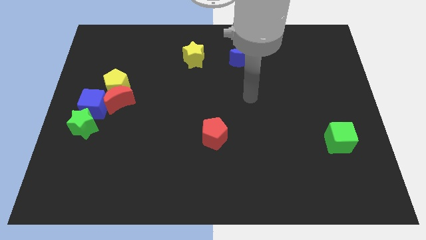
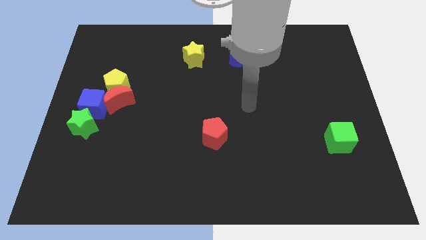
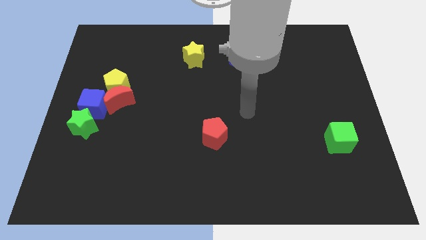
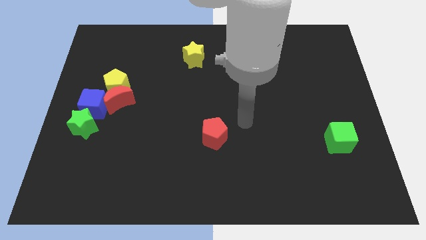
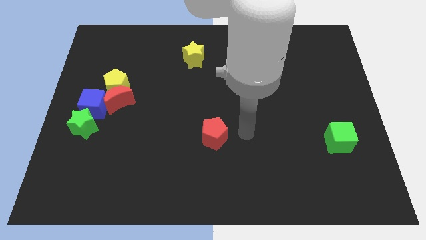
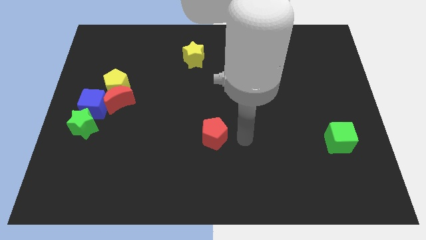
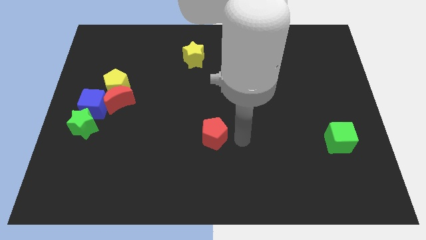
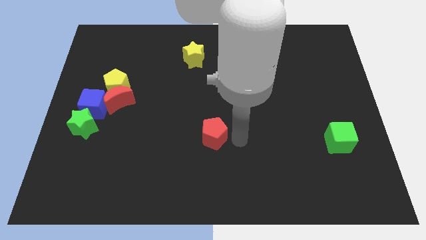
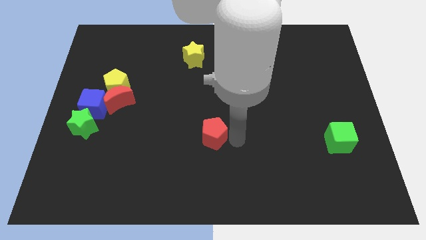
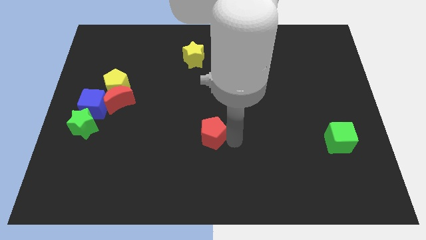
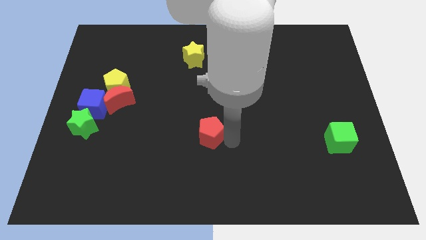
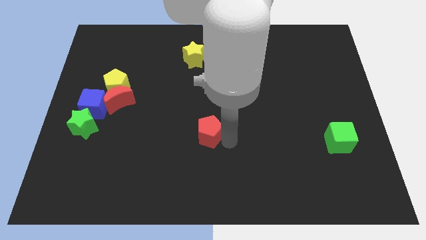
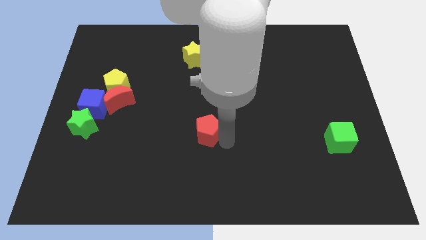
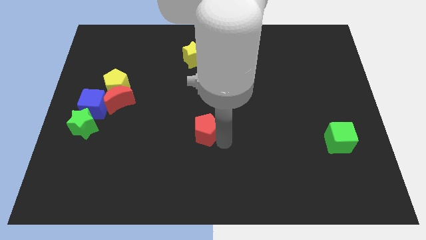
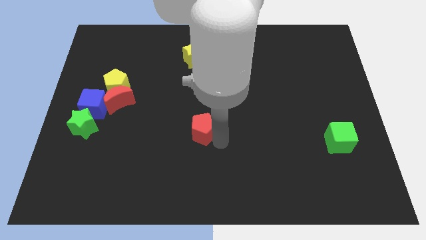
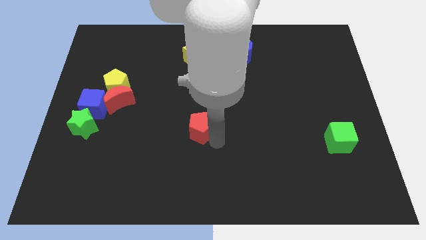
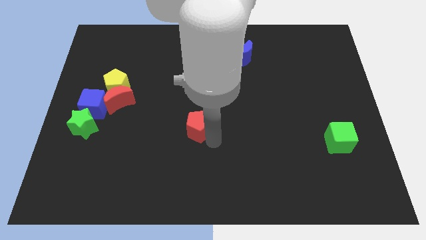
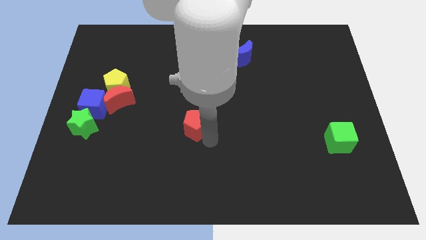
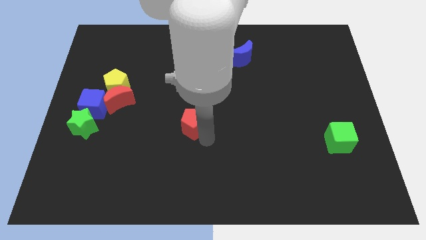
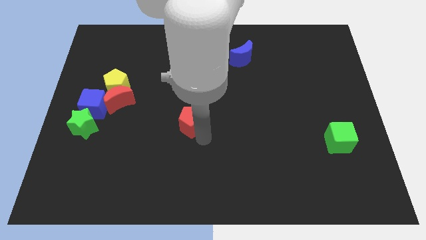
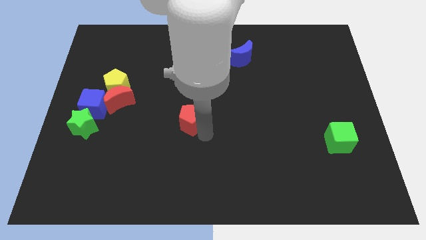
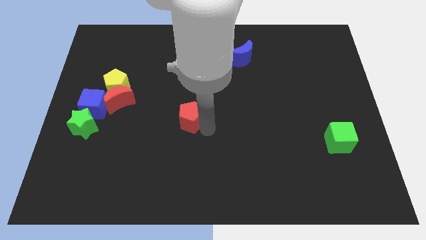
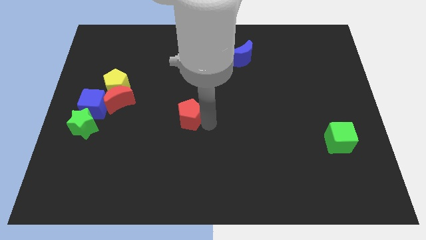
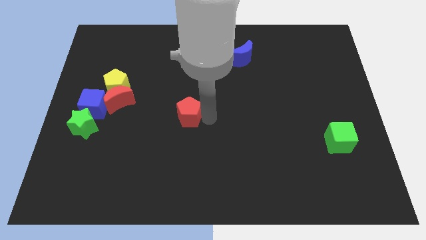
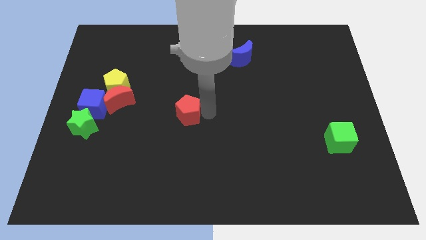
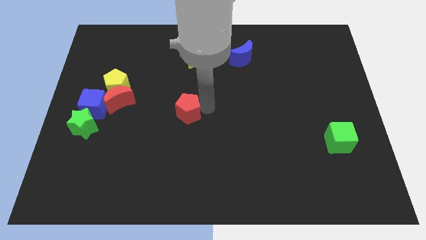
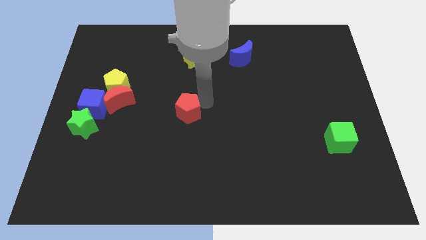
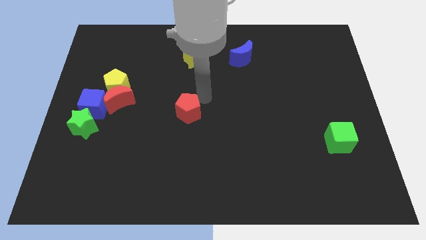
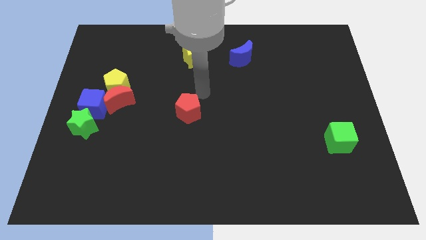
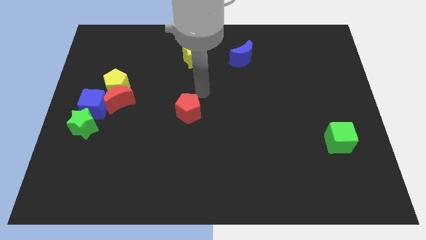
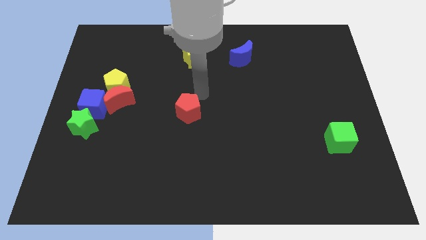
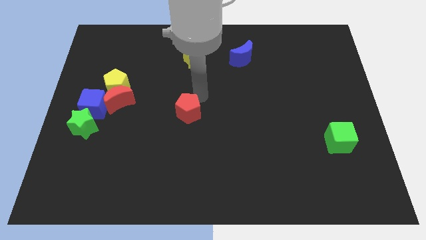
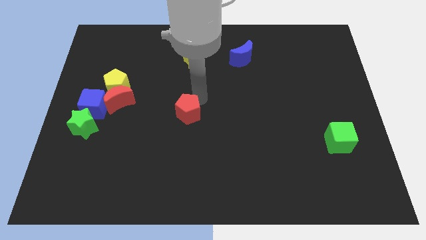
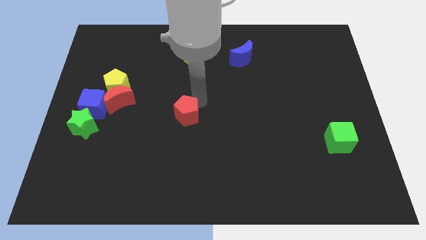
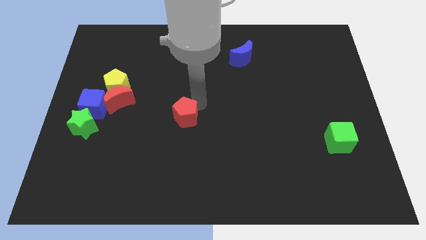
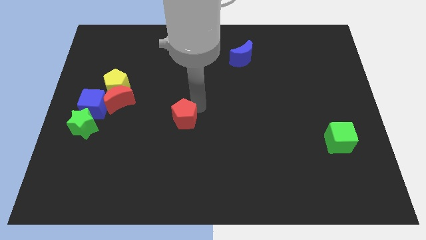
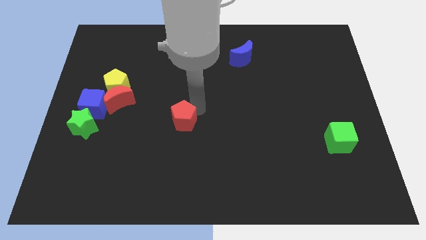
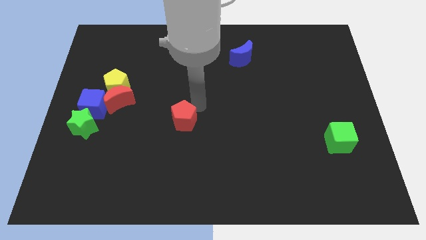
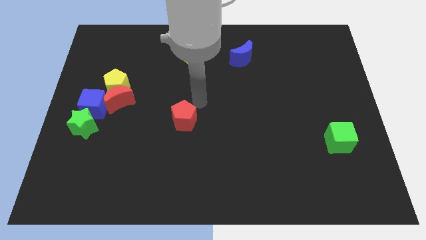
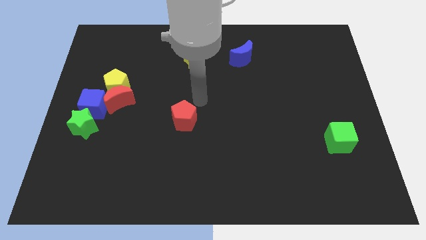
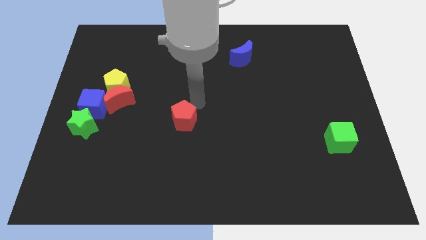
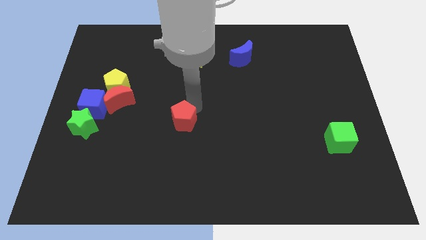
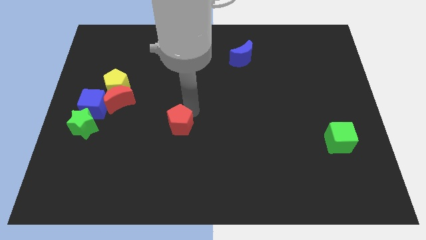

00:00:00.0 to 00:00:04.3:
push the red pentagon to the left a little bit

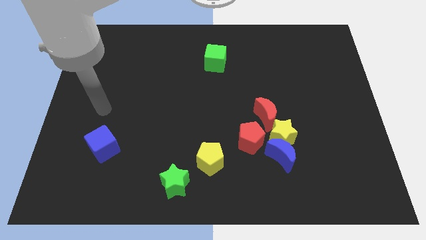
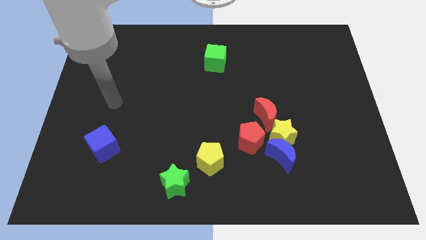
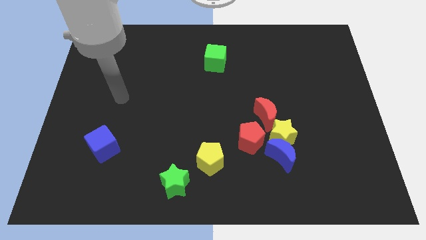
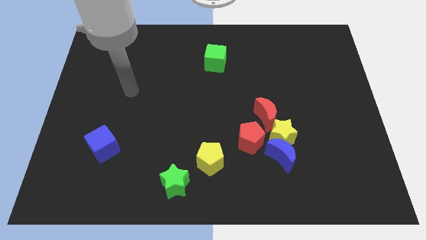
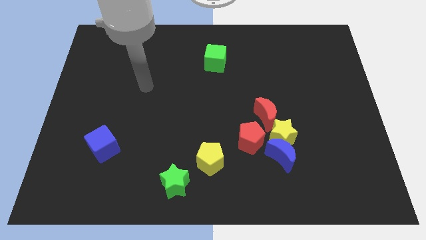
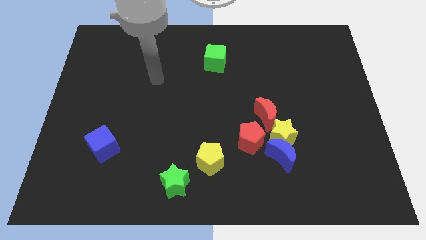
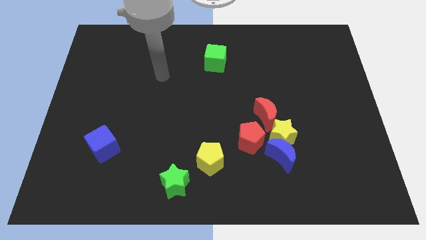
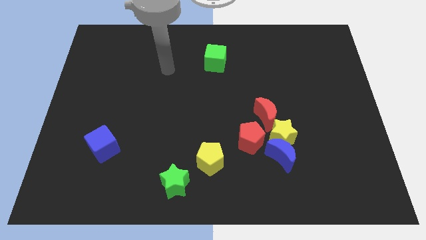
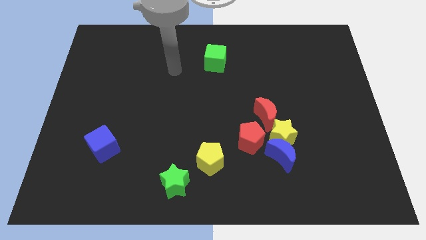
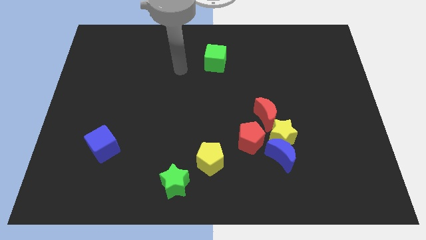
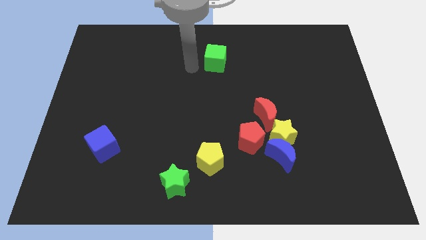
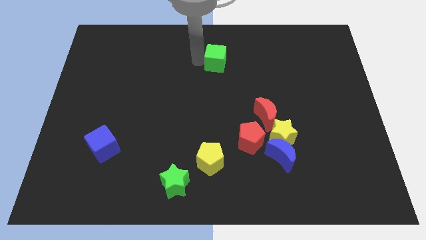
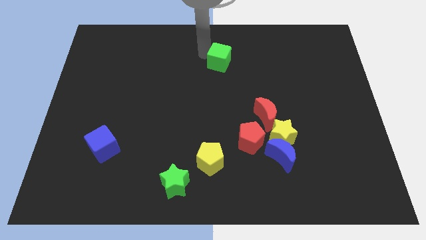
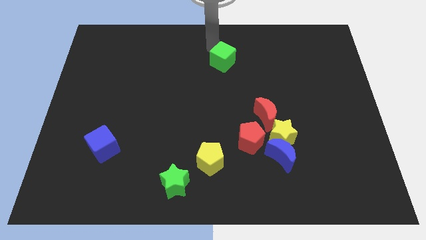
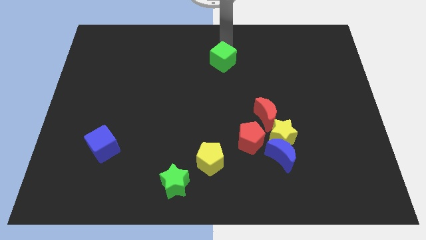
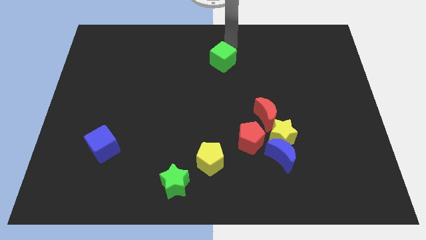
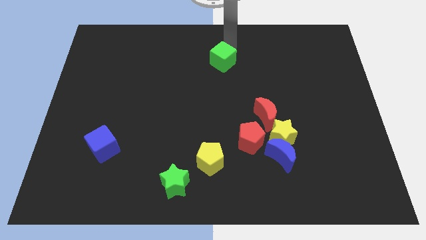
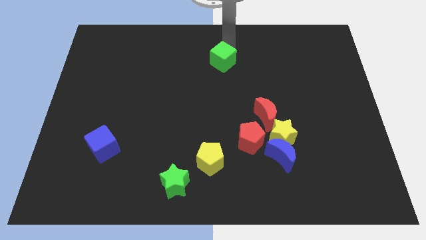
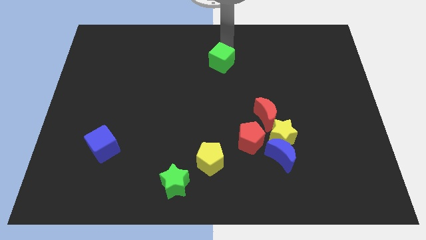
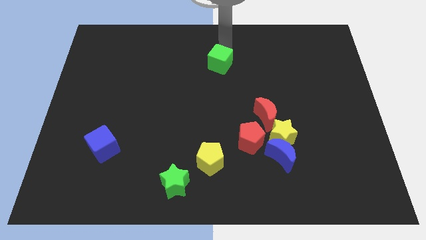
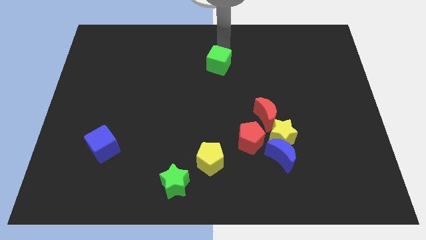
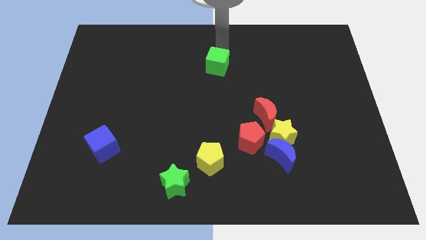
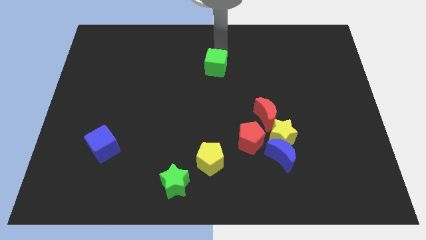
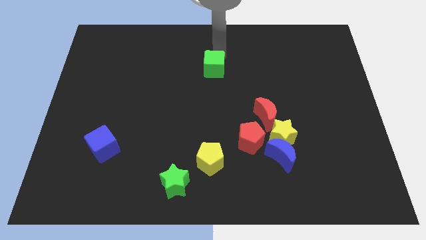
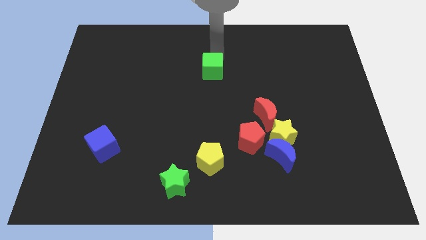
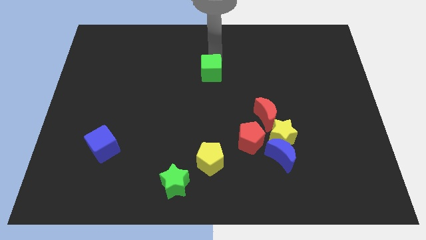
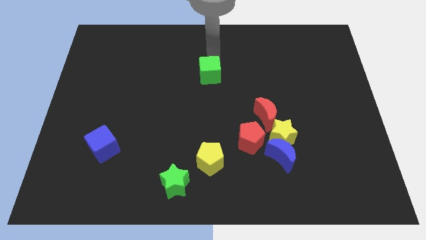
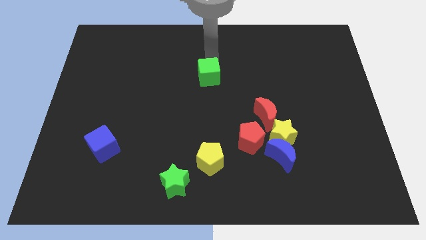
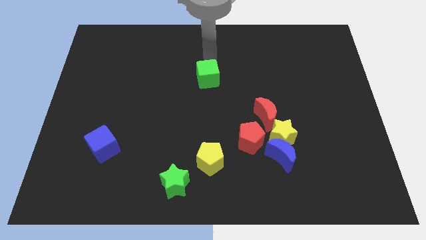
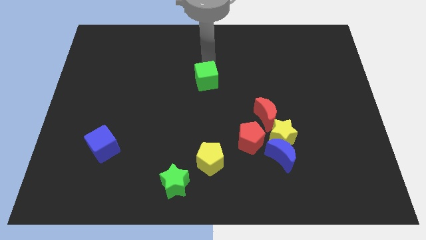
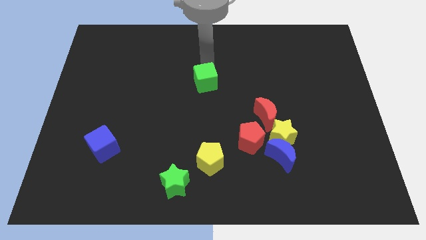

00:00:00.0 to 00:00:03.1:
push the green cube down a little bit

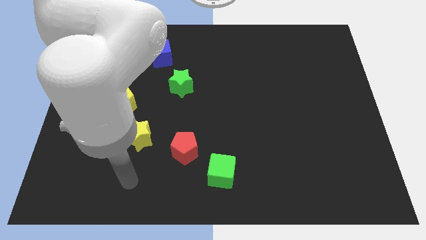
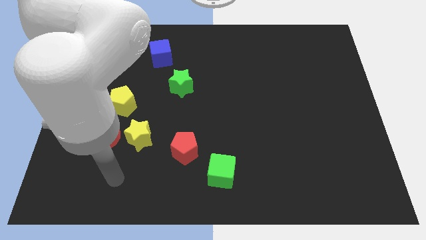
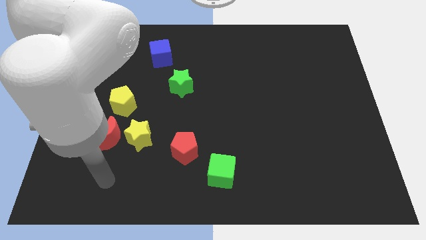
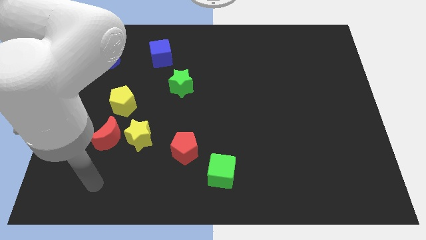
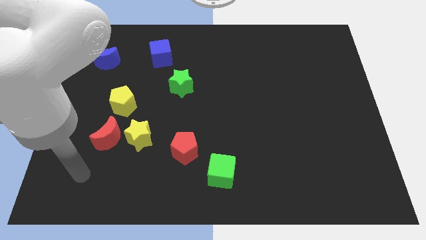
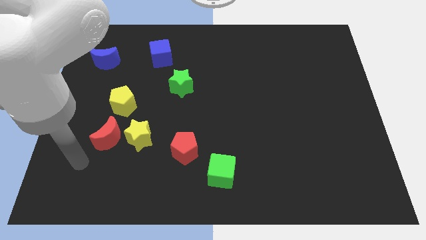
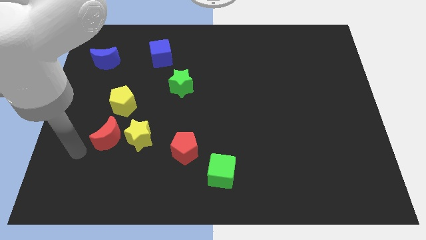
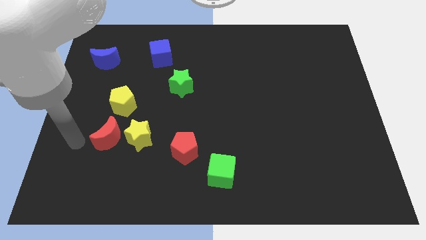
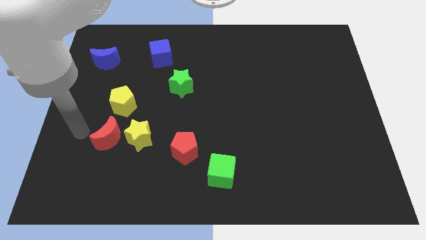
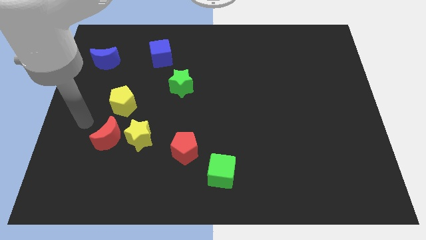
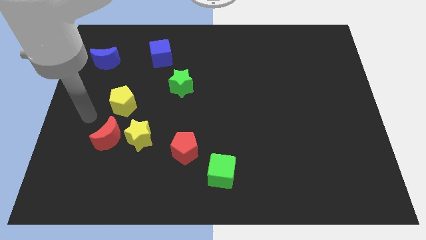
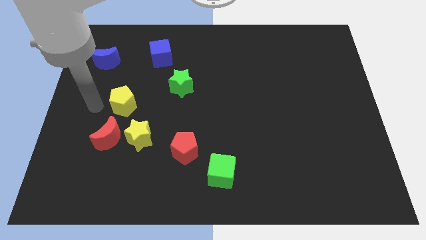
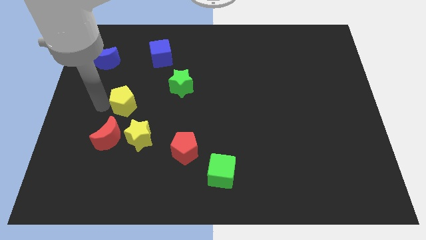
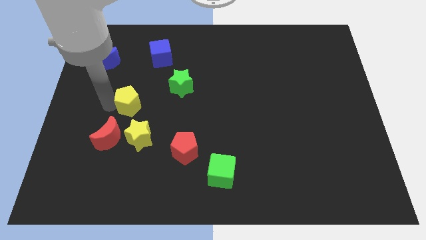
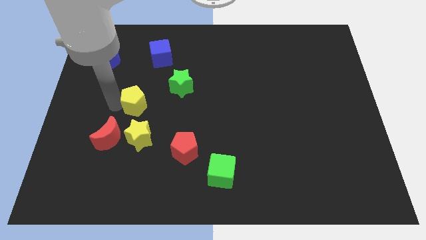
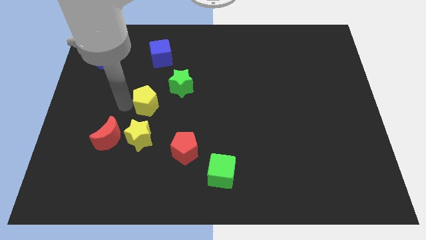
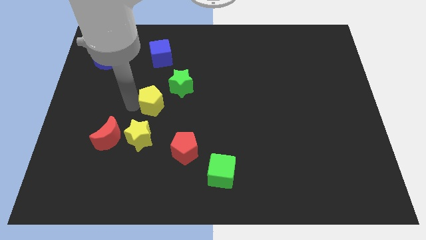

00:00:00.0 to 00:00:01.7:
push the yellow pentagon right a little
